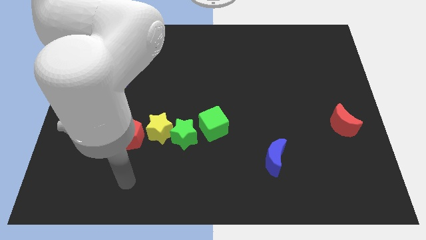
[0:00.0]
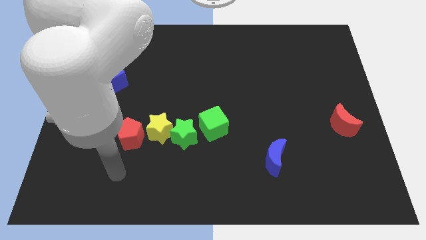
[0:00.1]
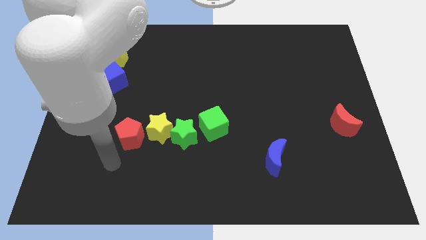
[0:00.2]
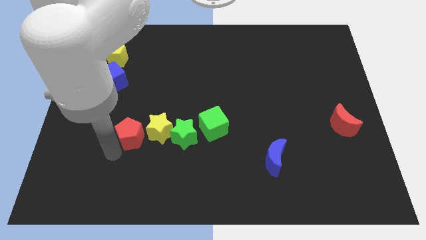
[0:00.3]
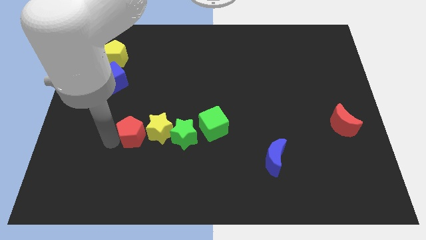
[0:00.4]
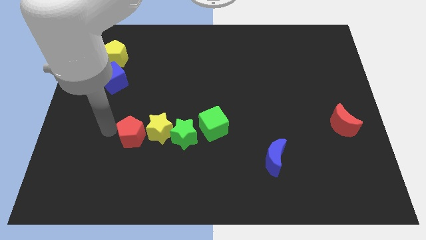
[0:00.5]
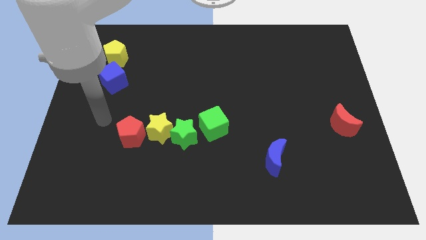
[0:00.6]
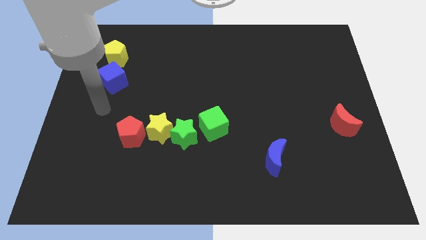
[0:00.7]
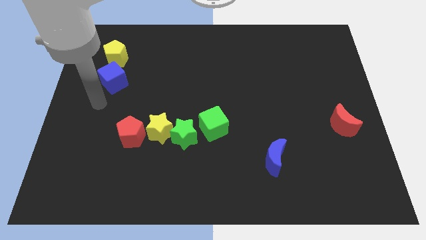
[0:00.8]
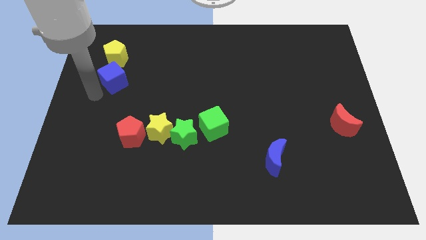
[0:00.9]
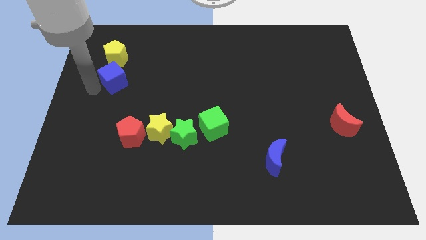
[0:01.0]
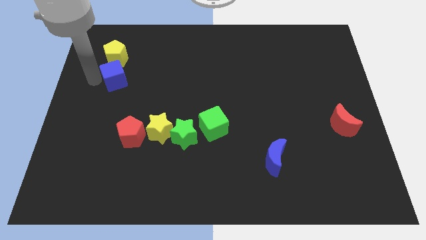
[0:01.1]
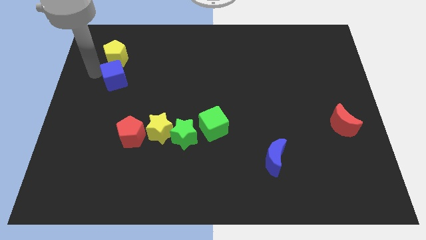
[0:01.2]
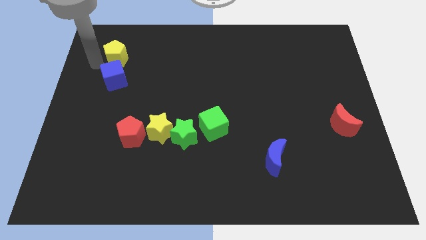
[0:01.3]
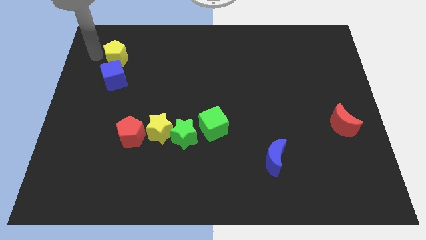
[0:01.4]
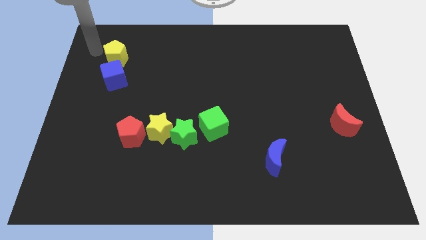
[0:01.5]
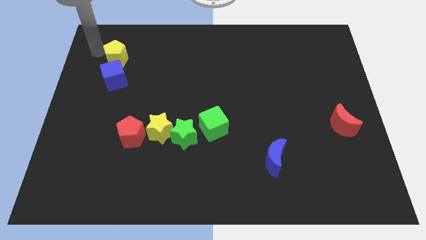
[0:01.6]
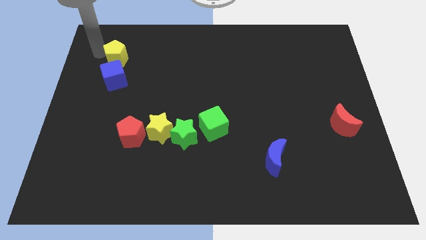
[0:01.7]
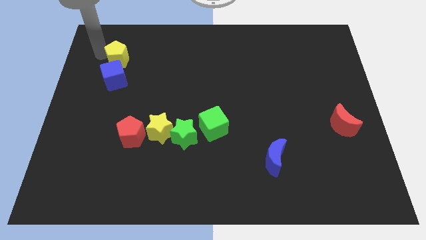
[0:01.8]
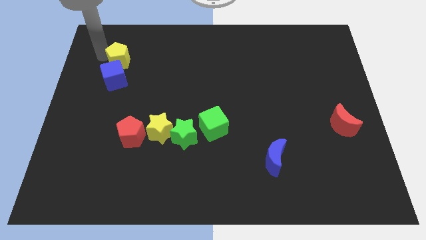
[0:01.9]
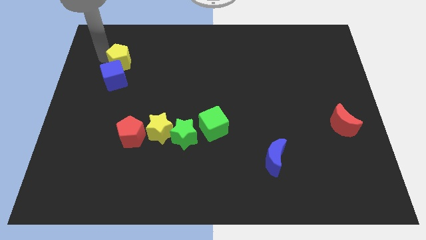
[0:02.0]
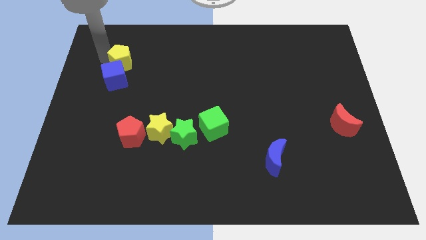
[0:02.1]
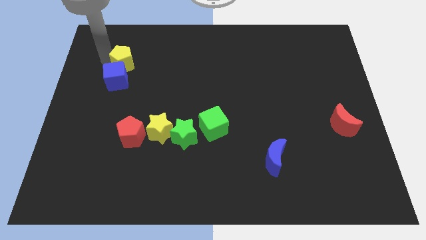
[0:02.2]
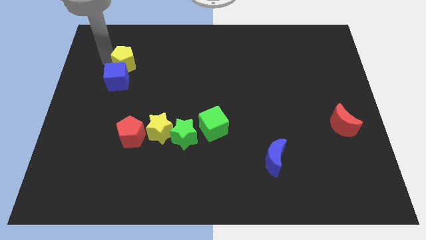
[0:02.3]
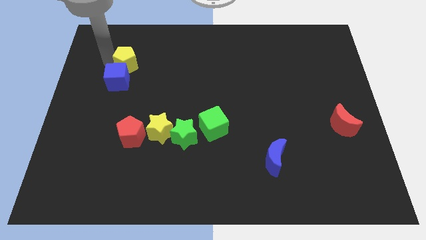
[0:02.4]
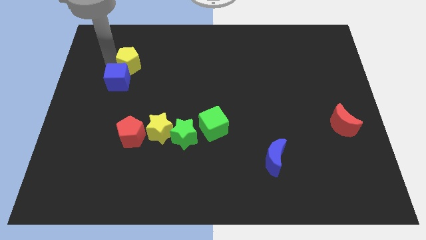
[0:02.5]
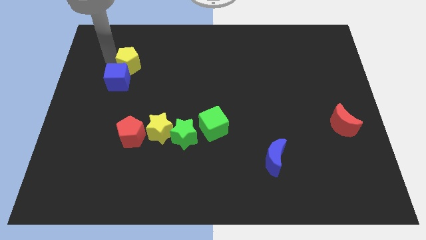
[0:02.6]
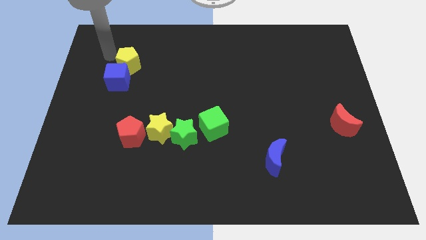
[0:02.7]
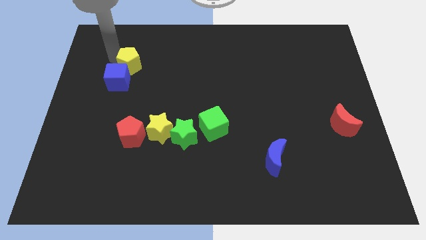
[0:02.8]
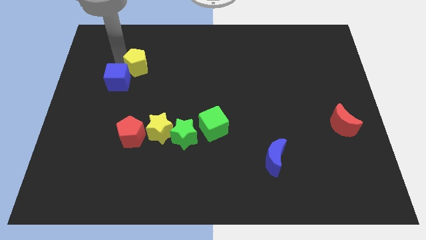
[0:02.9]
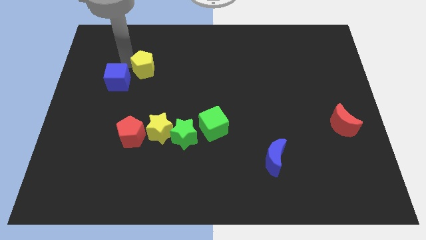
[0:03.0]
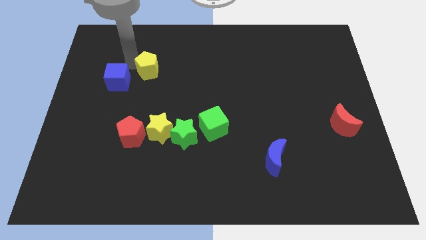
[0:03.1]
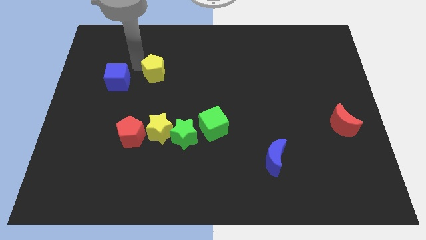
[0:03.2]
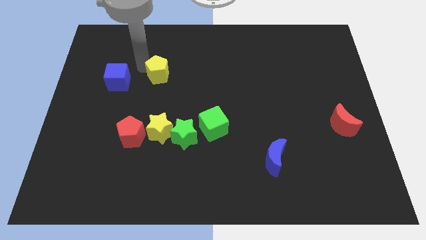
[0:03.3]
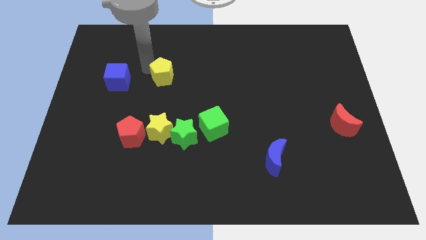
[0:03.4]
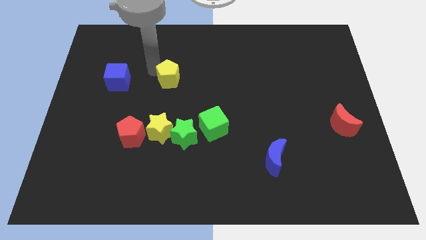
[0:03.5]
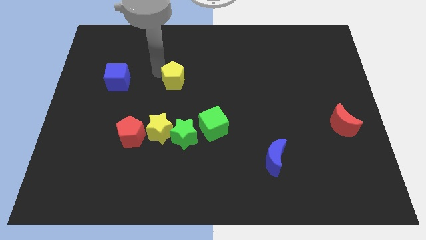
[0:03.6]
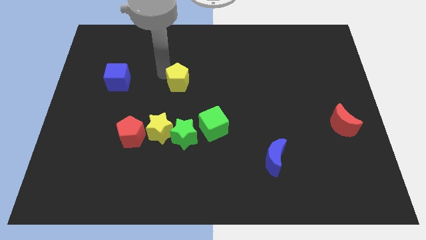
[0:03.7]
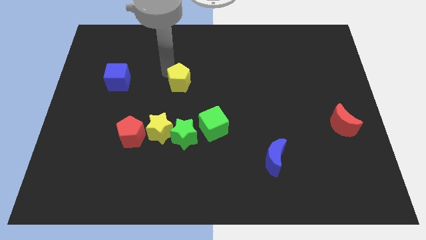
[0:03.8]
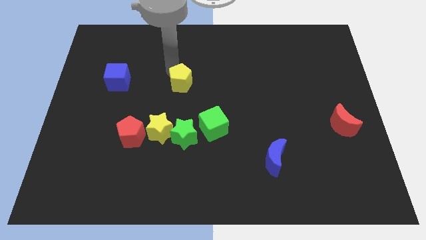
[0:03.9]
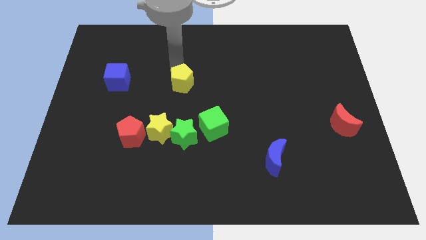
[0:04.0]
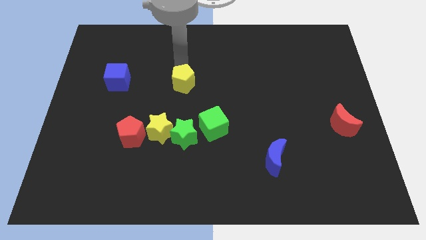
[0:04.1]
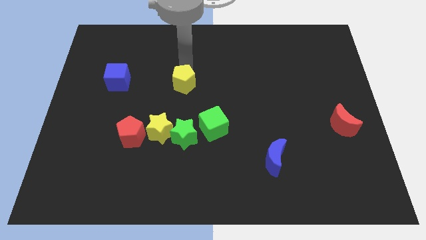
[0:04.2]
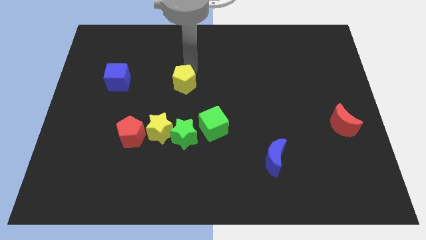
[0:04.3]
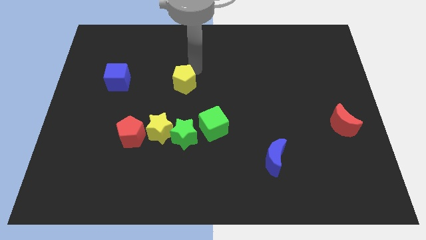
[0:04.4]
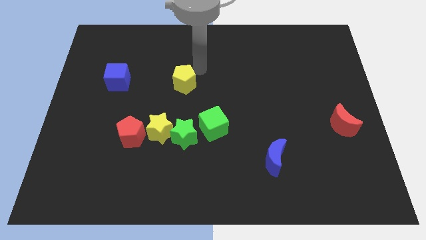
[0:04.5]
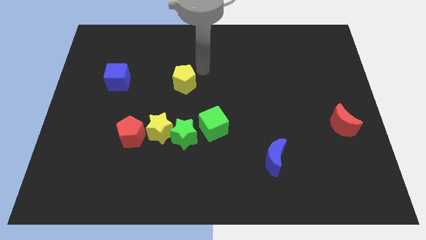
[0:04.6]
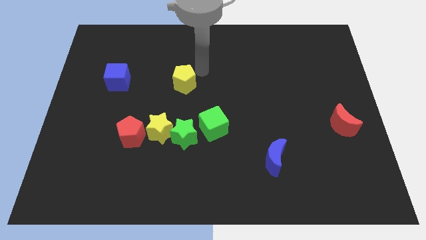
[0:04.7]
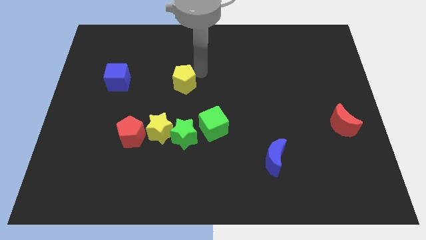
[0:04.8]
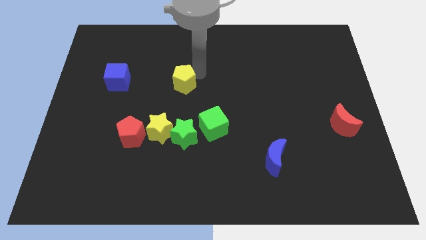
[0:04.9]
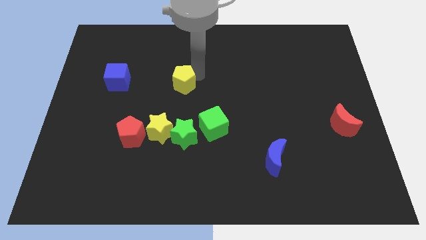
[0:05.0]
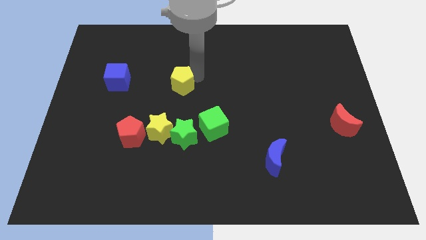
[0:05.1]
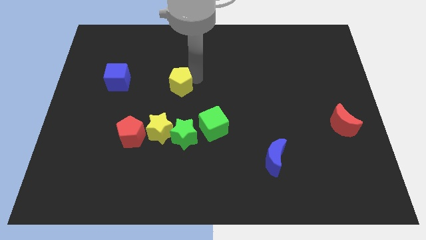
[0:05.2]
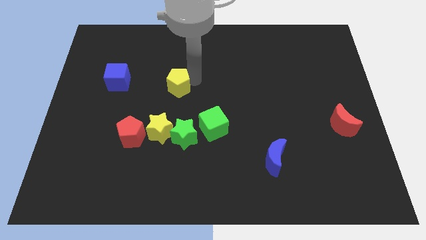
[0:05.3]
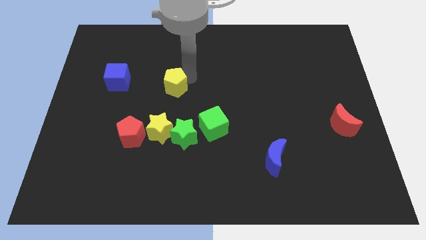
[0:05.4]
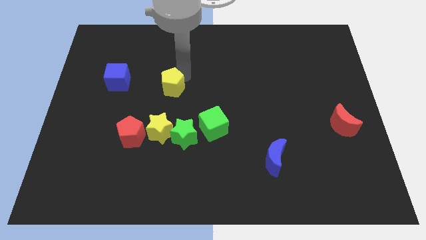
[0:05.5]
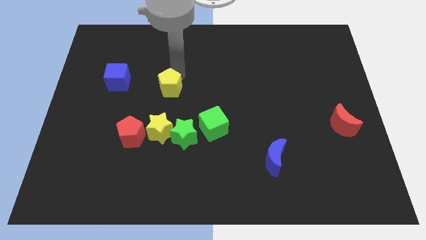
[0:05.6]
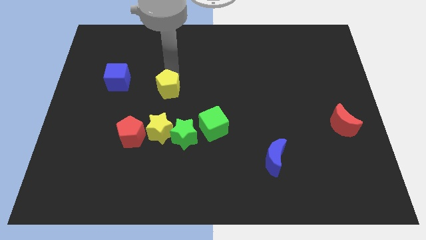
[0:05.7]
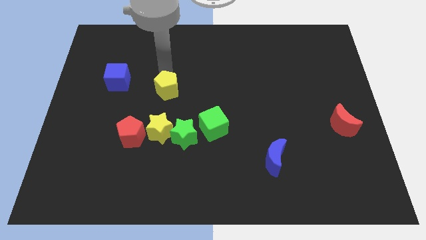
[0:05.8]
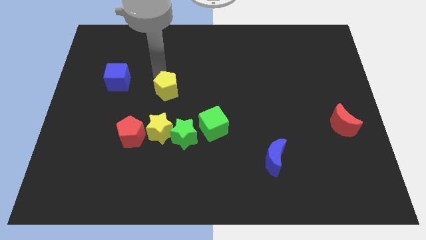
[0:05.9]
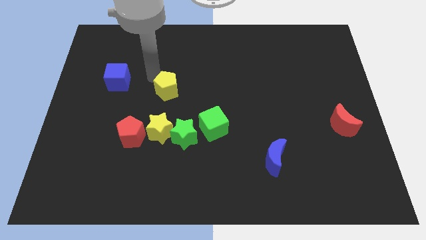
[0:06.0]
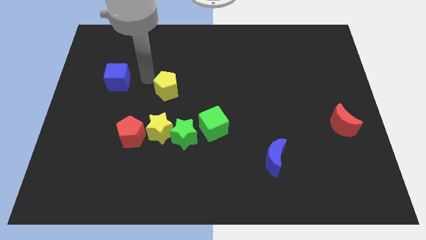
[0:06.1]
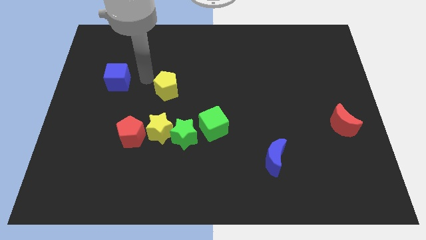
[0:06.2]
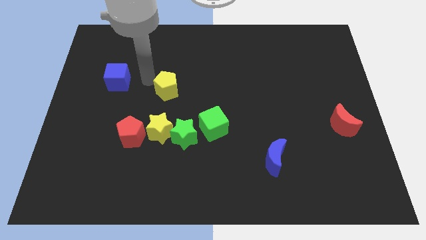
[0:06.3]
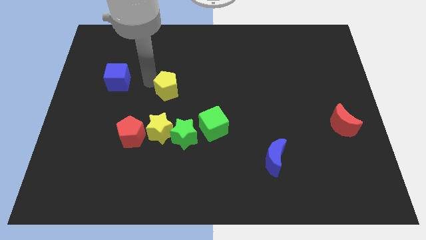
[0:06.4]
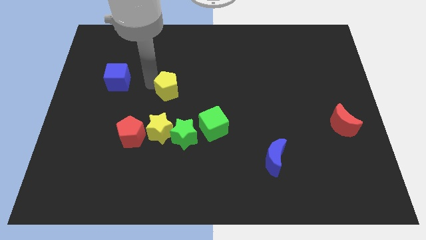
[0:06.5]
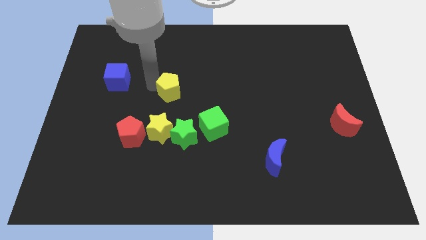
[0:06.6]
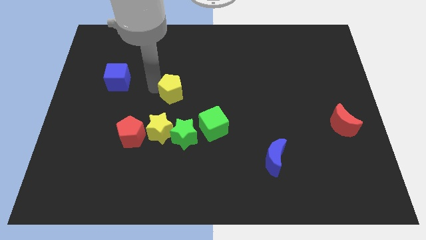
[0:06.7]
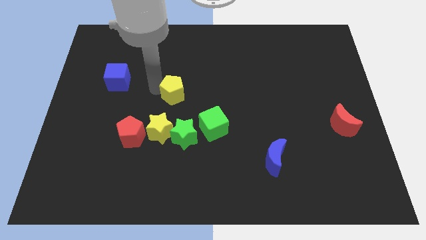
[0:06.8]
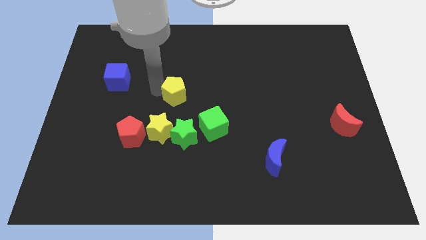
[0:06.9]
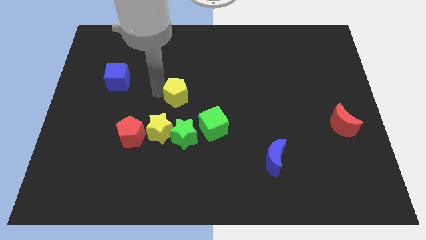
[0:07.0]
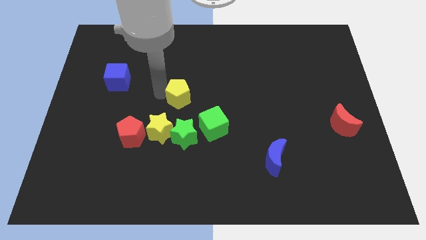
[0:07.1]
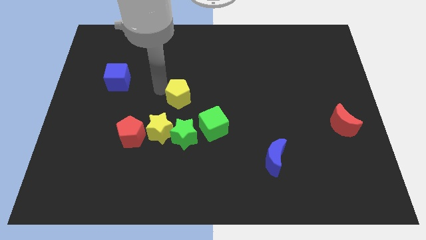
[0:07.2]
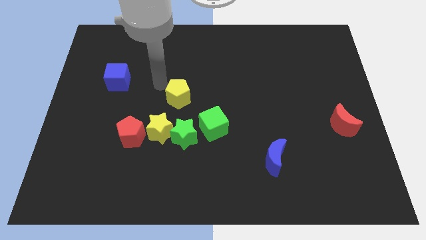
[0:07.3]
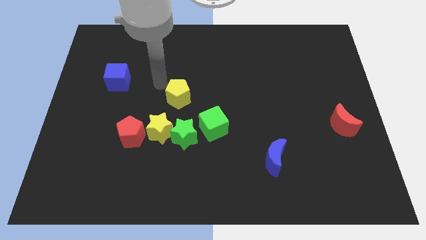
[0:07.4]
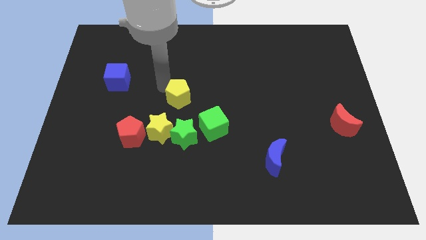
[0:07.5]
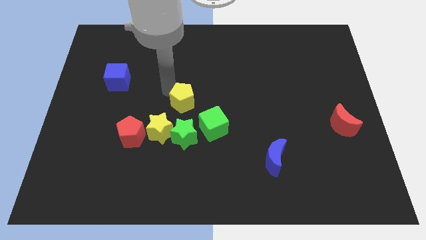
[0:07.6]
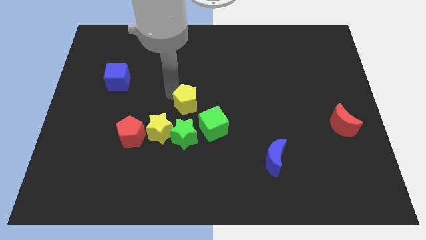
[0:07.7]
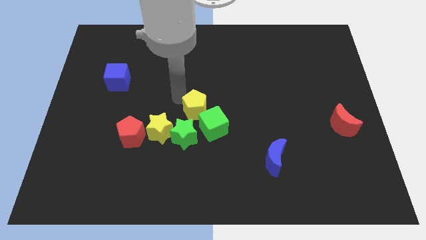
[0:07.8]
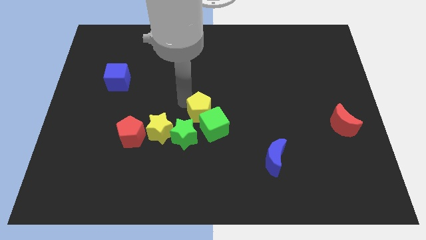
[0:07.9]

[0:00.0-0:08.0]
slide the yellow pentagon towards the green cube
